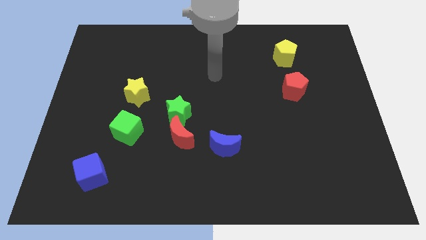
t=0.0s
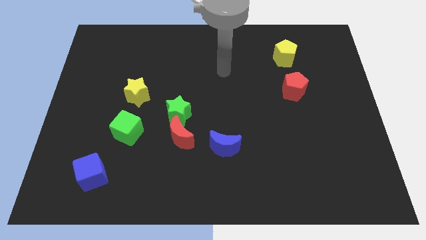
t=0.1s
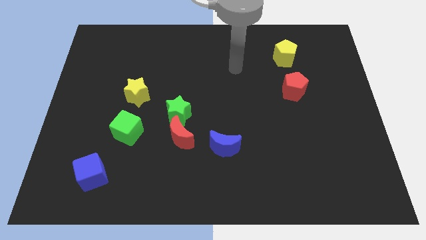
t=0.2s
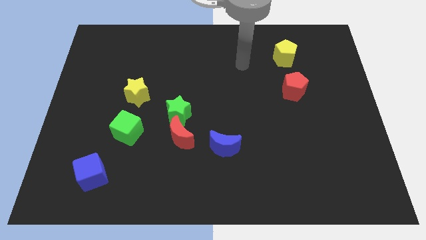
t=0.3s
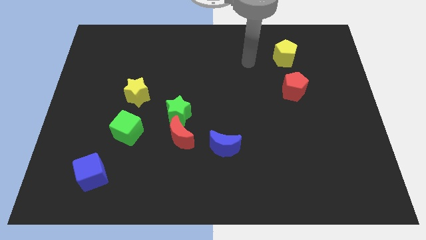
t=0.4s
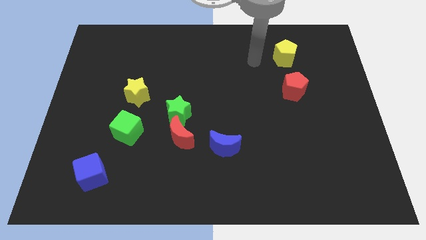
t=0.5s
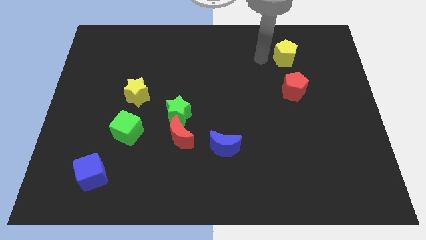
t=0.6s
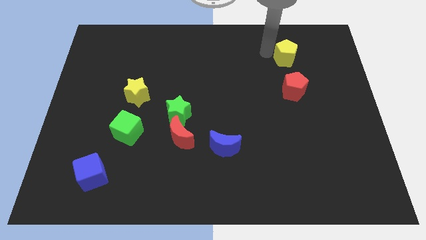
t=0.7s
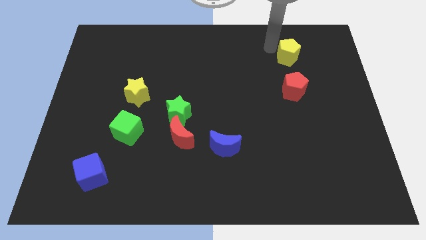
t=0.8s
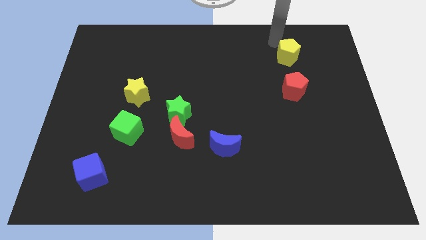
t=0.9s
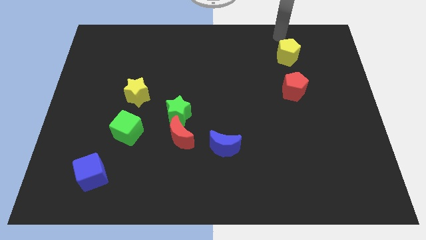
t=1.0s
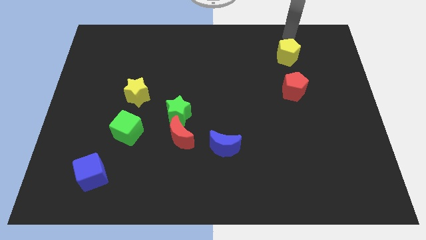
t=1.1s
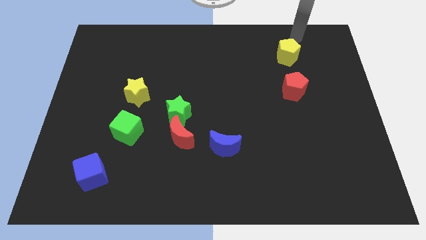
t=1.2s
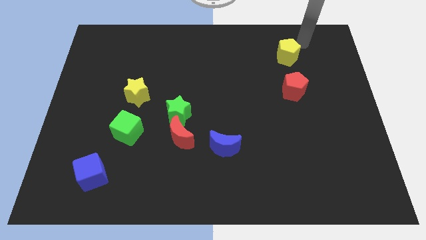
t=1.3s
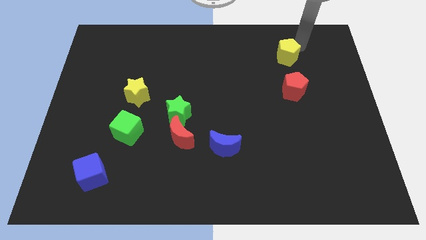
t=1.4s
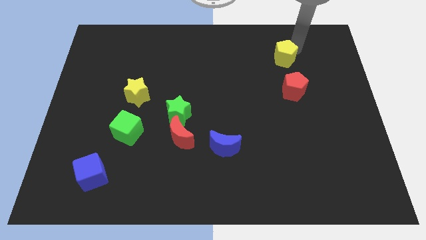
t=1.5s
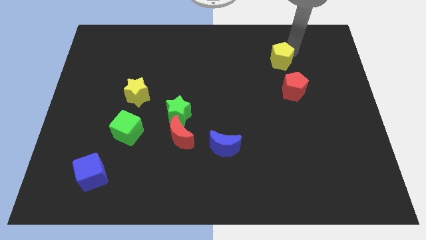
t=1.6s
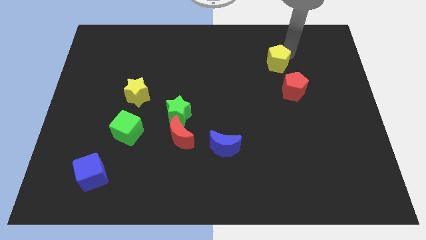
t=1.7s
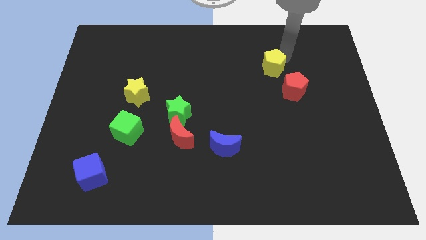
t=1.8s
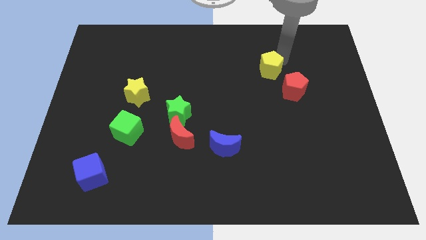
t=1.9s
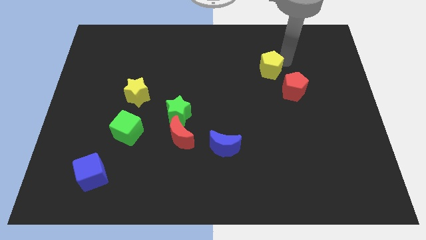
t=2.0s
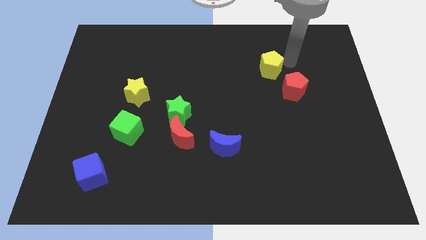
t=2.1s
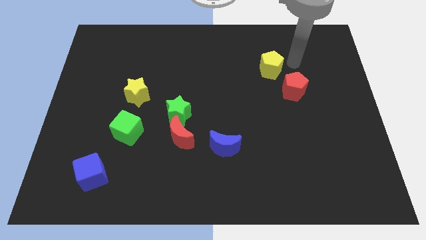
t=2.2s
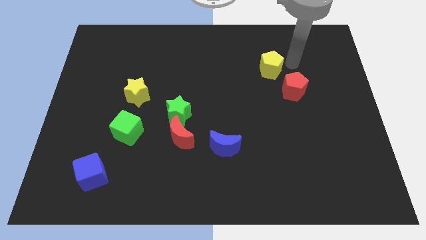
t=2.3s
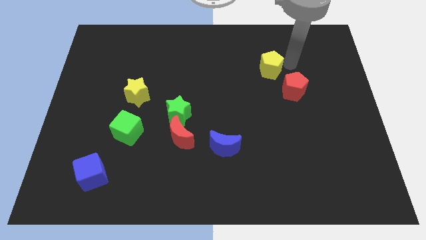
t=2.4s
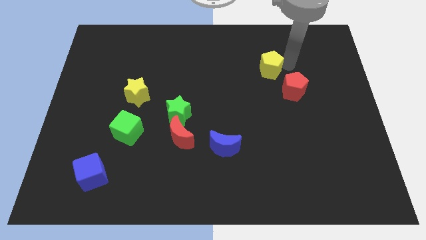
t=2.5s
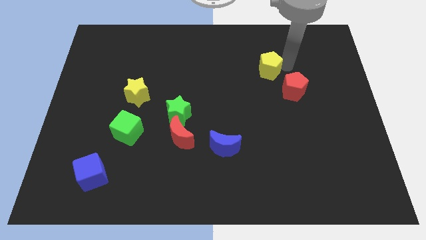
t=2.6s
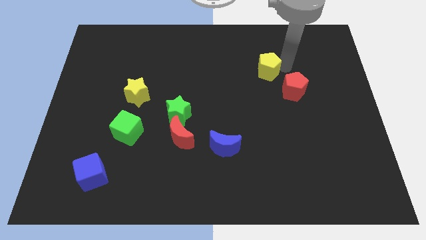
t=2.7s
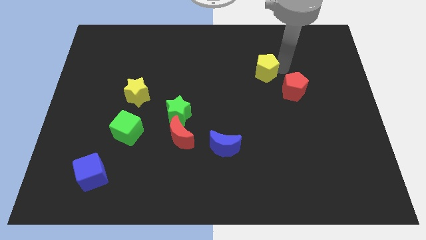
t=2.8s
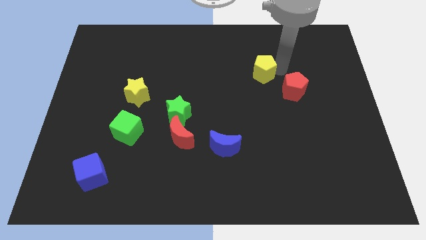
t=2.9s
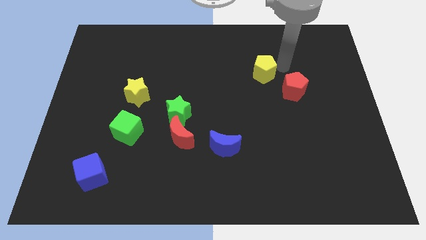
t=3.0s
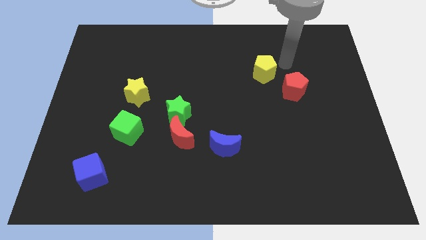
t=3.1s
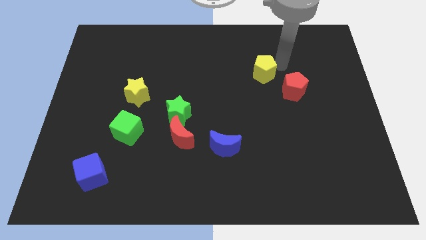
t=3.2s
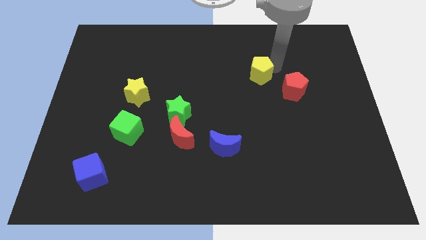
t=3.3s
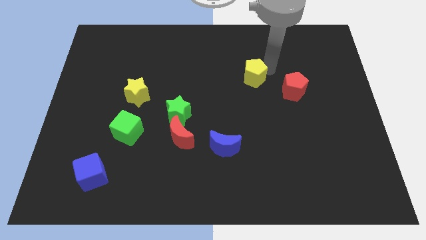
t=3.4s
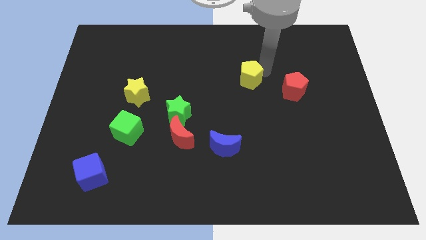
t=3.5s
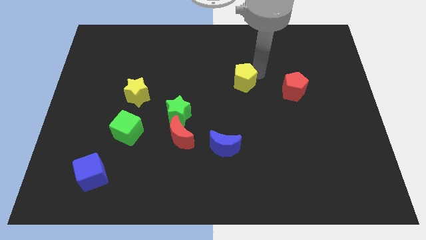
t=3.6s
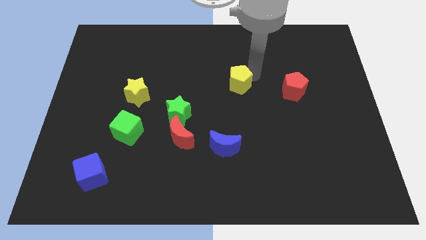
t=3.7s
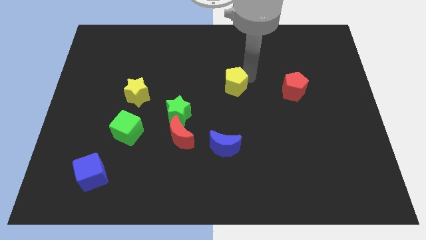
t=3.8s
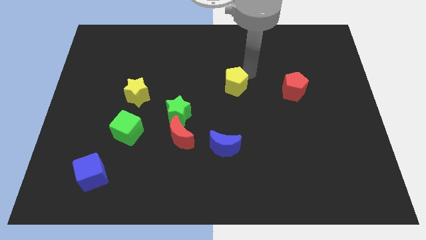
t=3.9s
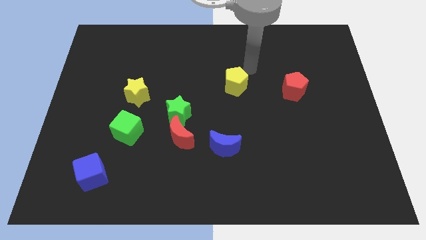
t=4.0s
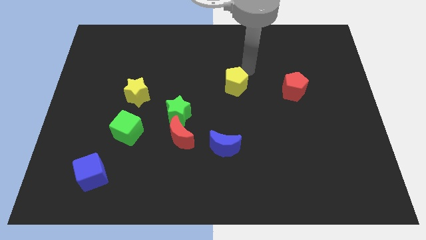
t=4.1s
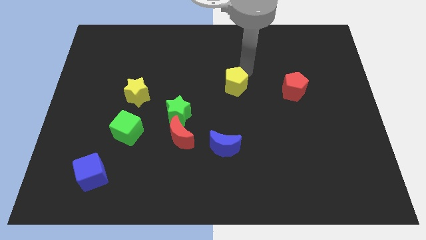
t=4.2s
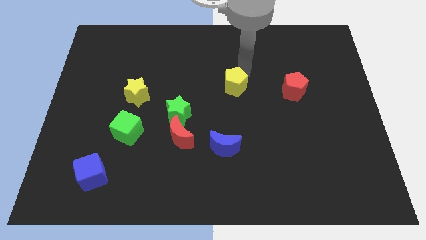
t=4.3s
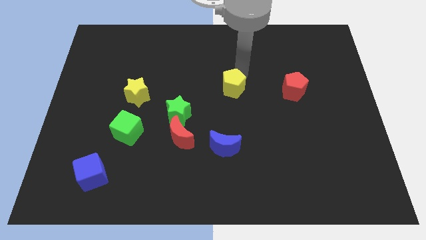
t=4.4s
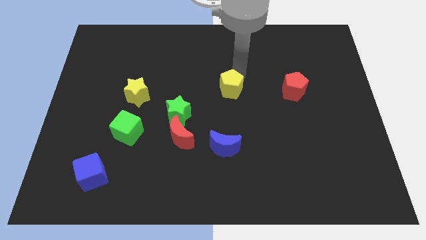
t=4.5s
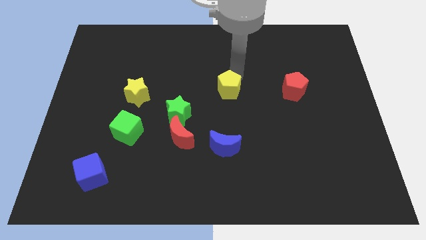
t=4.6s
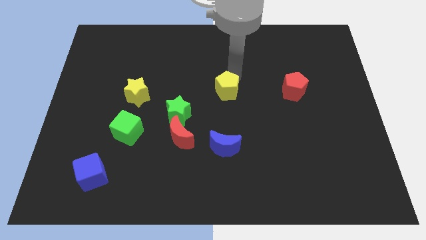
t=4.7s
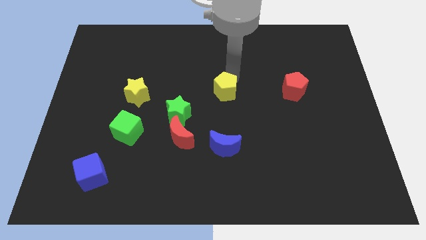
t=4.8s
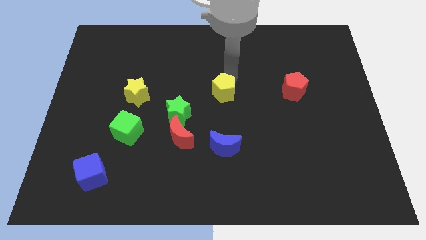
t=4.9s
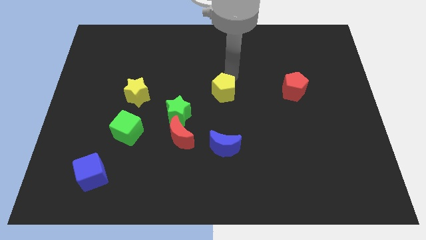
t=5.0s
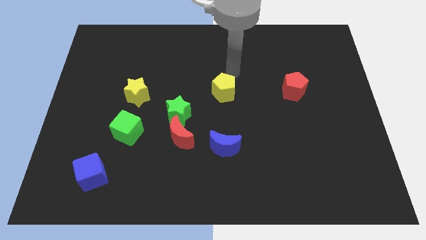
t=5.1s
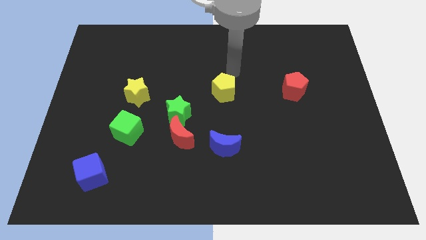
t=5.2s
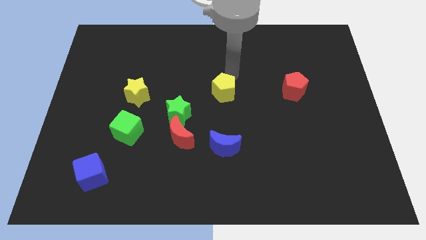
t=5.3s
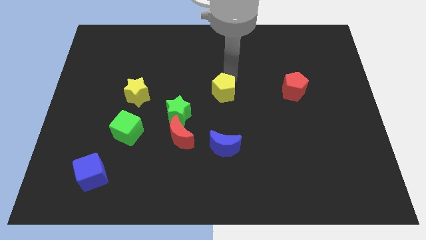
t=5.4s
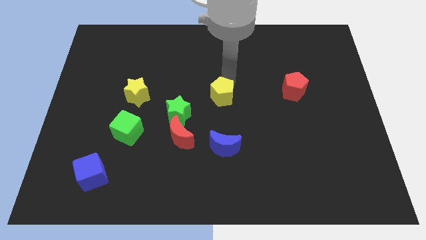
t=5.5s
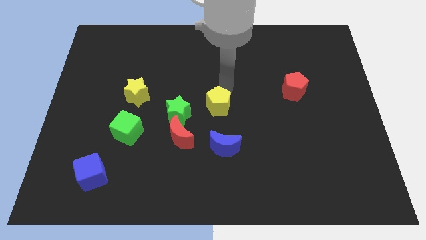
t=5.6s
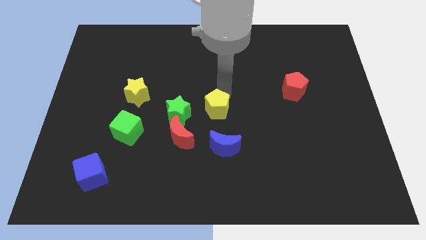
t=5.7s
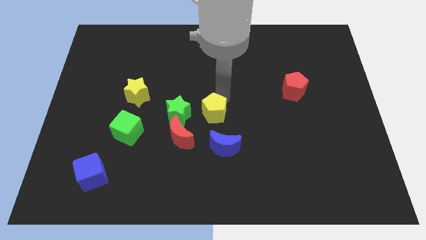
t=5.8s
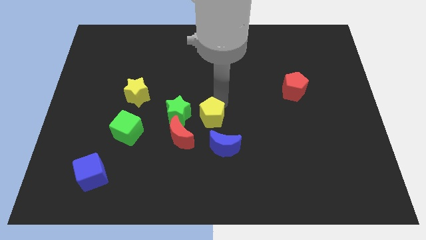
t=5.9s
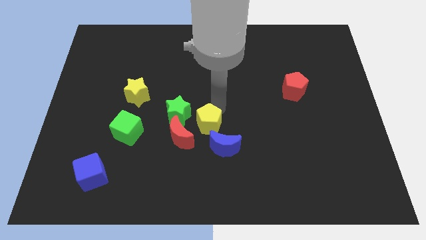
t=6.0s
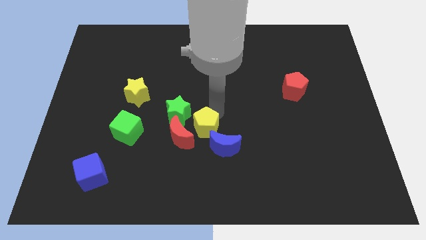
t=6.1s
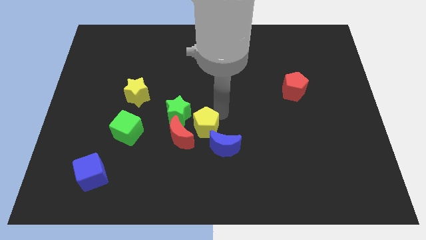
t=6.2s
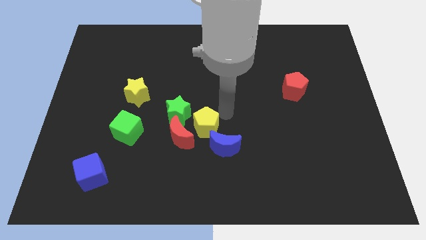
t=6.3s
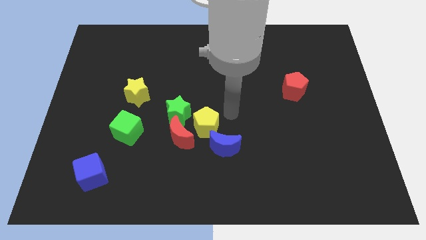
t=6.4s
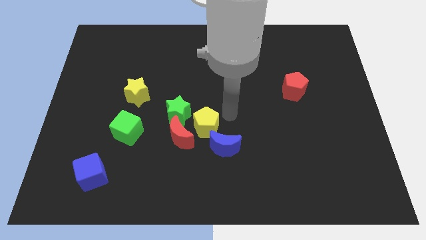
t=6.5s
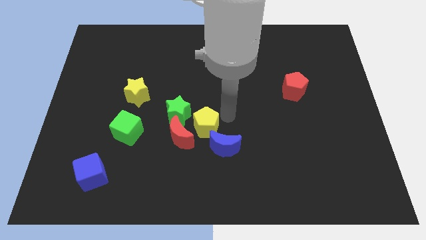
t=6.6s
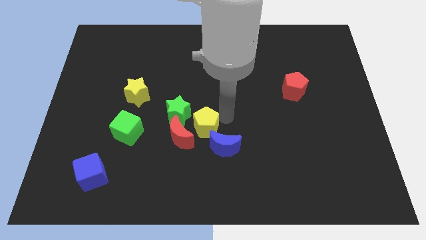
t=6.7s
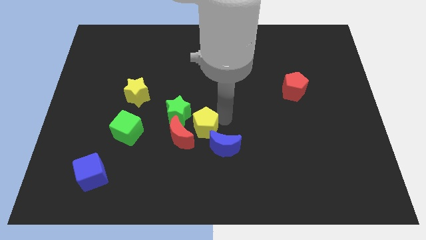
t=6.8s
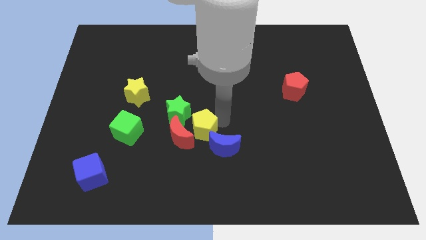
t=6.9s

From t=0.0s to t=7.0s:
put the yellow pentagon to the red moon
